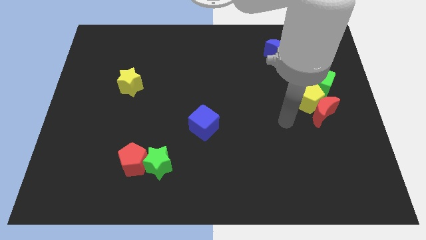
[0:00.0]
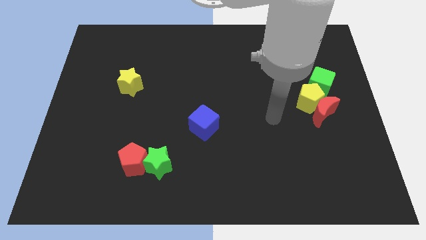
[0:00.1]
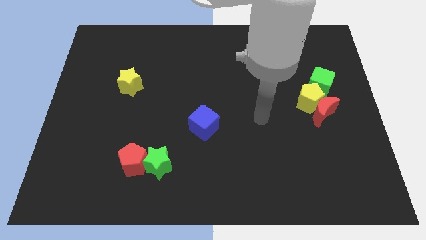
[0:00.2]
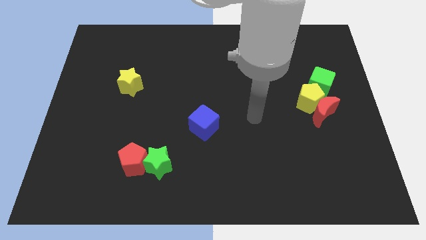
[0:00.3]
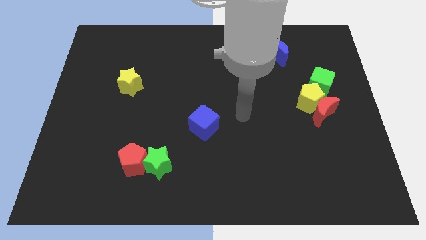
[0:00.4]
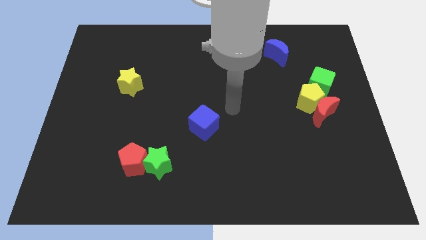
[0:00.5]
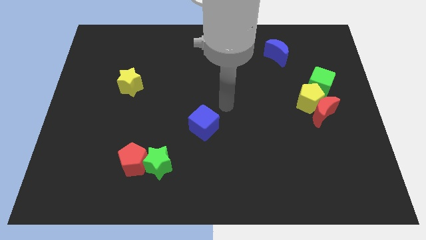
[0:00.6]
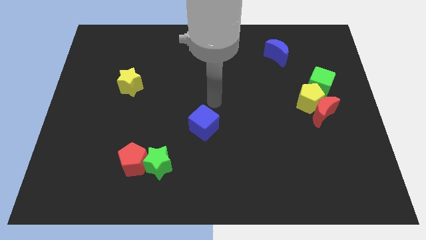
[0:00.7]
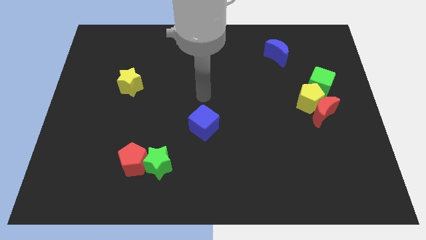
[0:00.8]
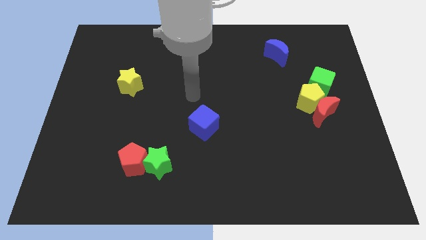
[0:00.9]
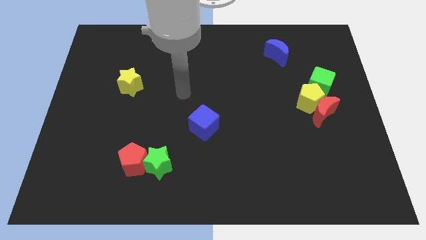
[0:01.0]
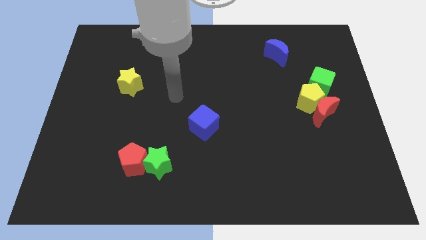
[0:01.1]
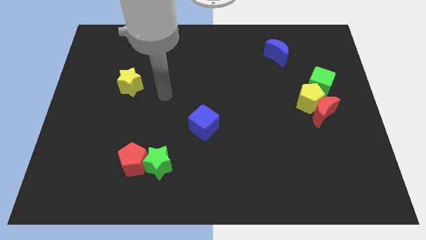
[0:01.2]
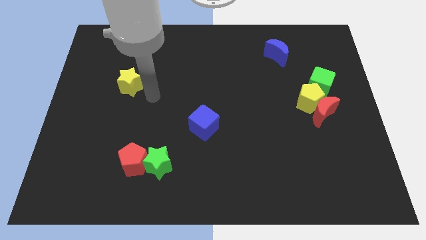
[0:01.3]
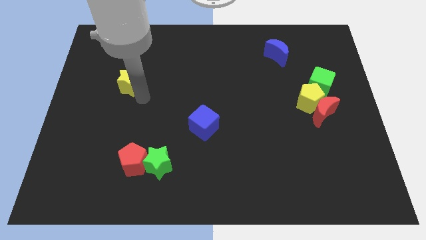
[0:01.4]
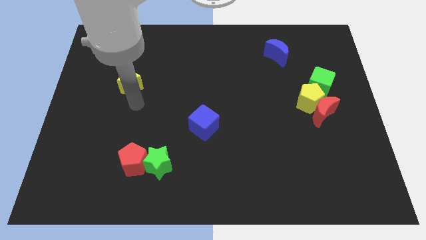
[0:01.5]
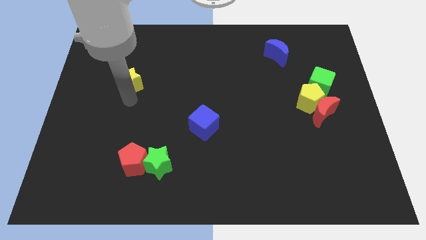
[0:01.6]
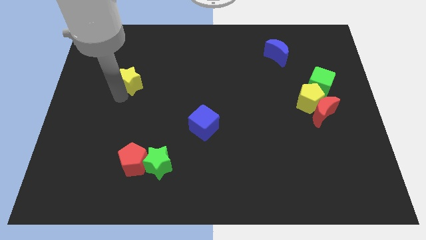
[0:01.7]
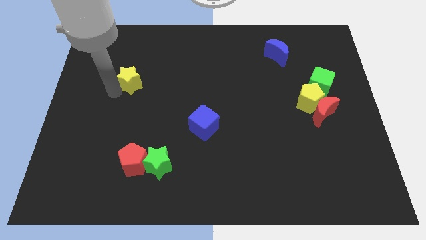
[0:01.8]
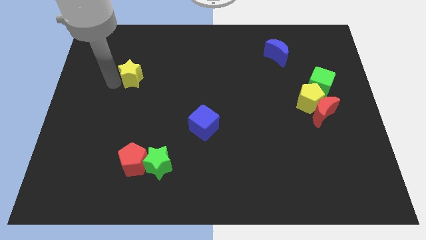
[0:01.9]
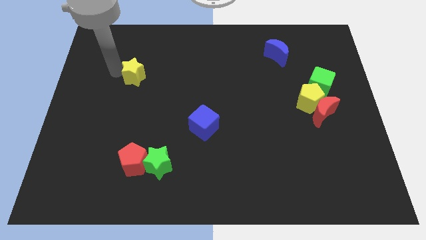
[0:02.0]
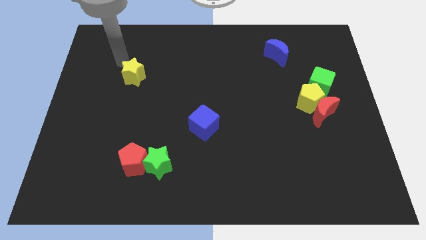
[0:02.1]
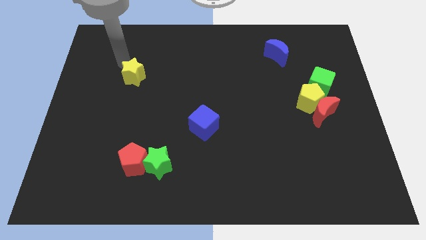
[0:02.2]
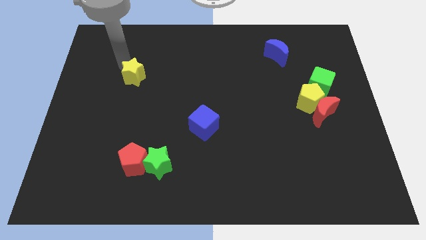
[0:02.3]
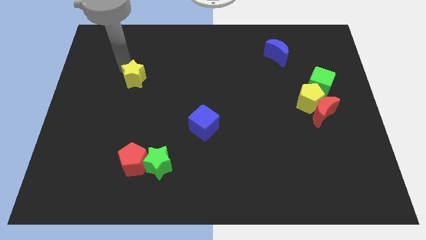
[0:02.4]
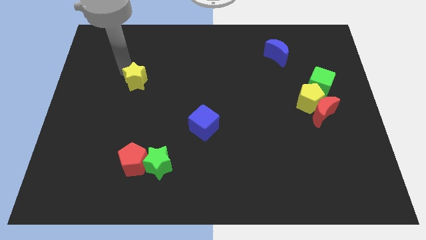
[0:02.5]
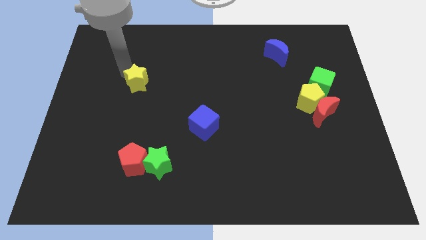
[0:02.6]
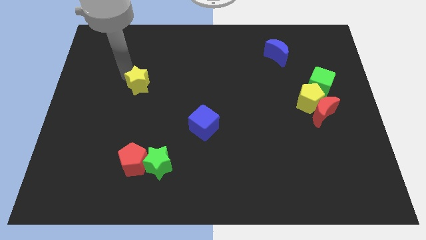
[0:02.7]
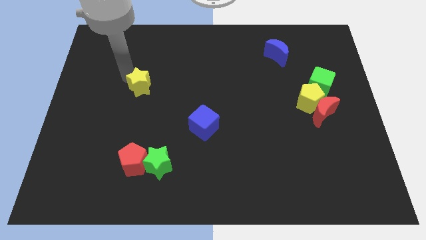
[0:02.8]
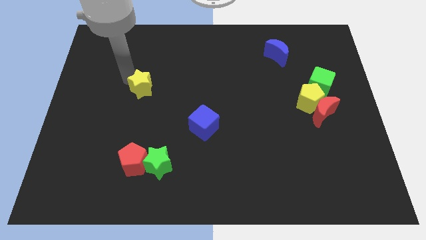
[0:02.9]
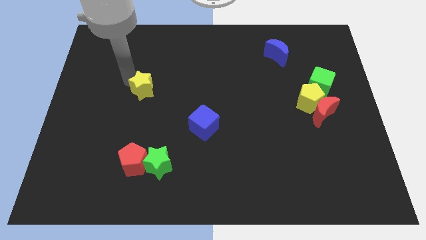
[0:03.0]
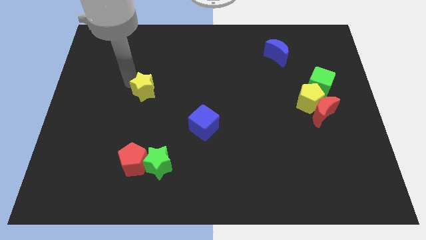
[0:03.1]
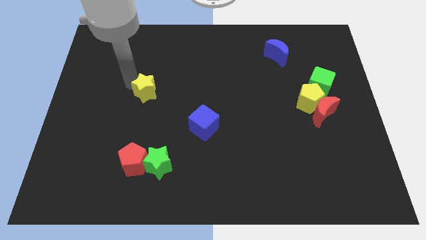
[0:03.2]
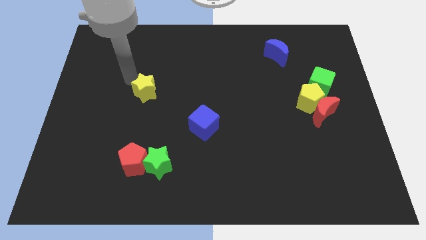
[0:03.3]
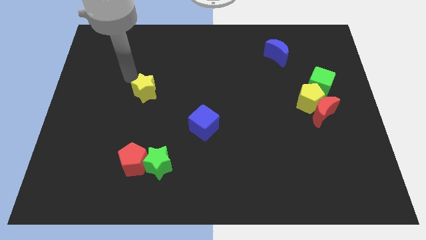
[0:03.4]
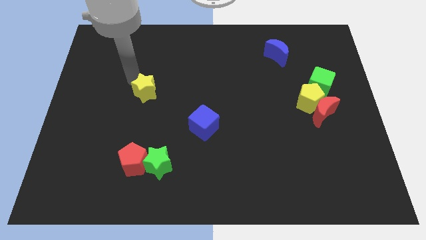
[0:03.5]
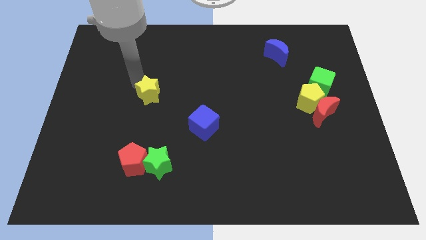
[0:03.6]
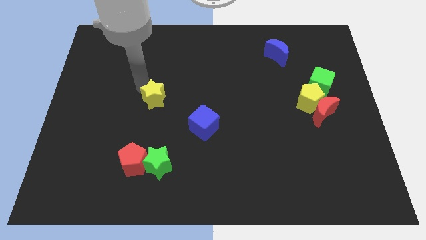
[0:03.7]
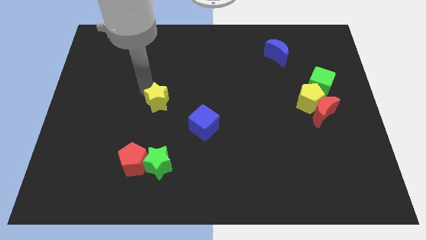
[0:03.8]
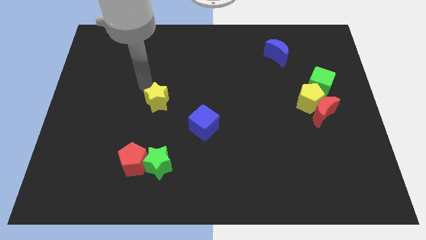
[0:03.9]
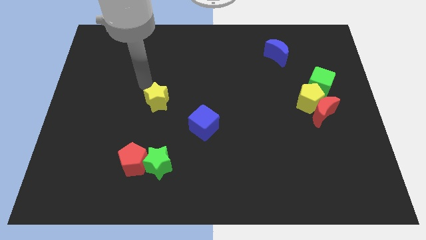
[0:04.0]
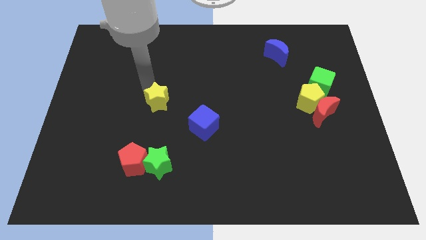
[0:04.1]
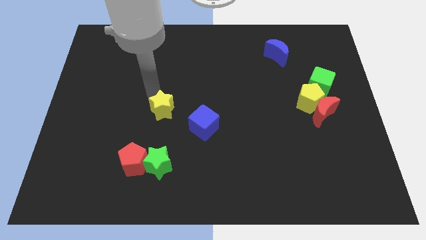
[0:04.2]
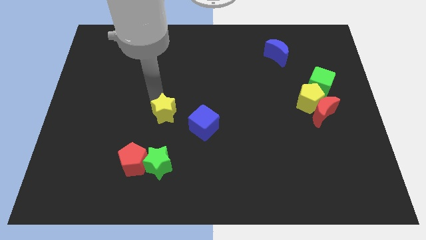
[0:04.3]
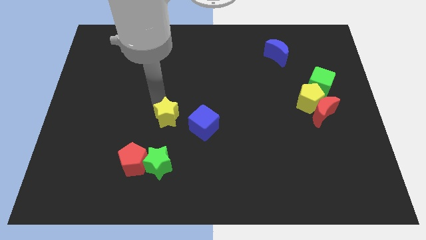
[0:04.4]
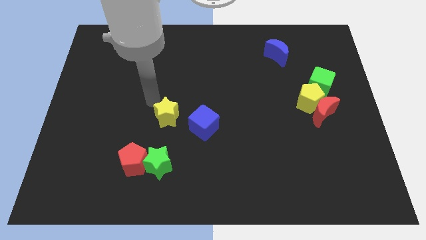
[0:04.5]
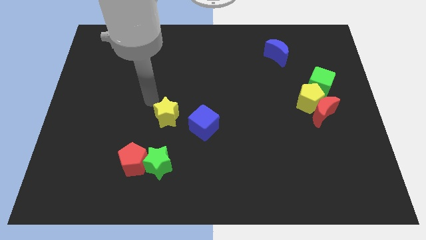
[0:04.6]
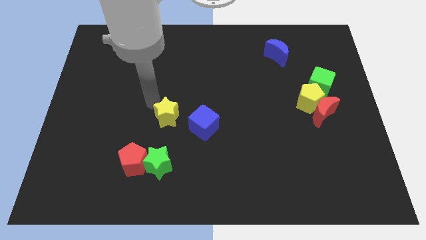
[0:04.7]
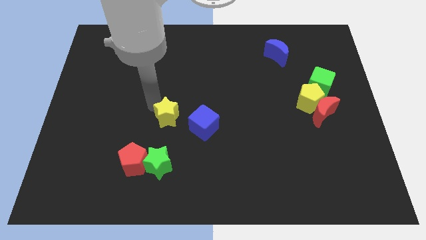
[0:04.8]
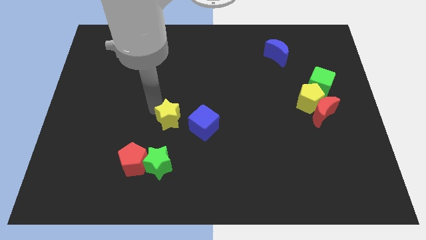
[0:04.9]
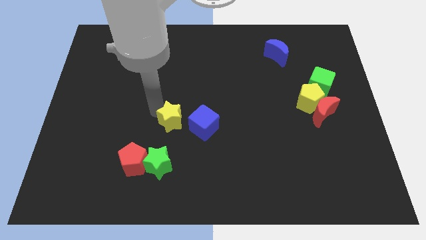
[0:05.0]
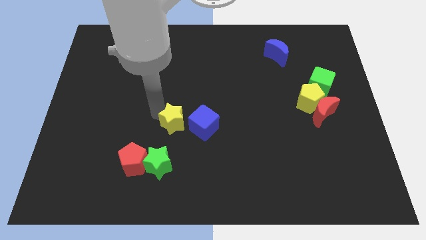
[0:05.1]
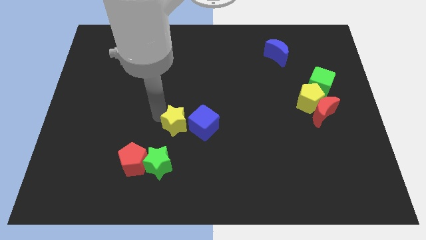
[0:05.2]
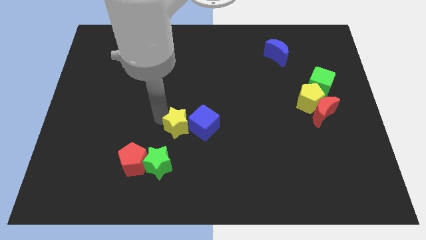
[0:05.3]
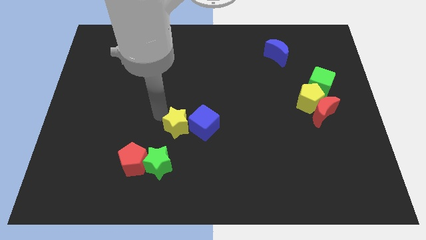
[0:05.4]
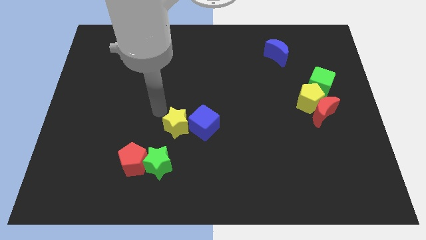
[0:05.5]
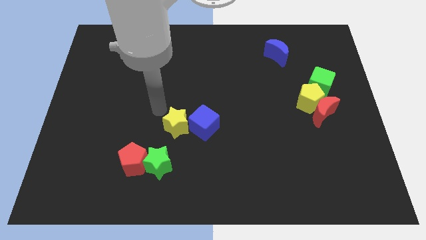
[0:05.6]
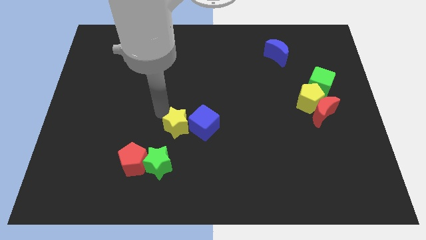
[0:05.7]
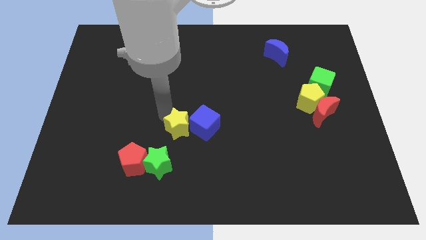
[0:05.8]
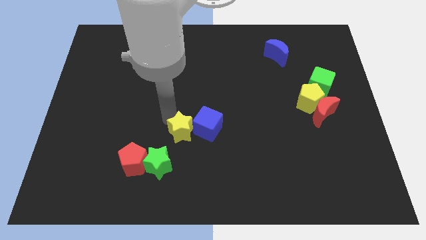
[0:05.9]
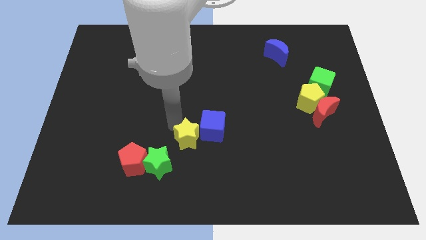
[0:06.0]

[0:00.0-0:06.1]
move the yellow star down and then to the right

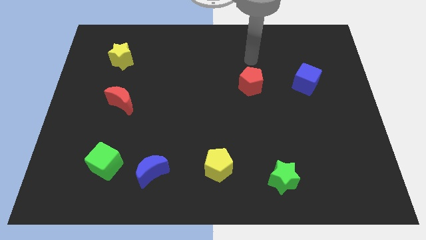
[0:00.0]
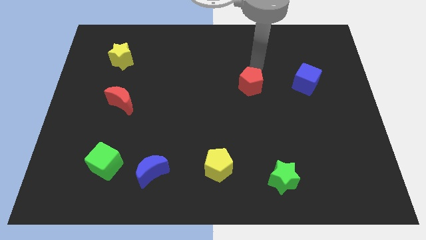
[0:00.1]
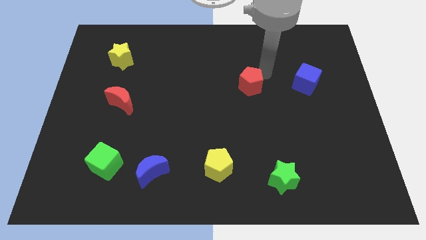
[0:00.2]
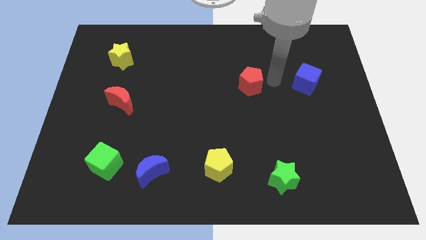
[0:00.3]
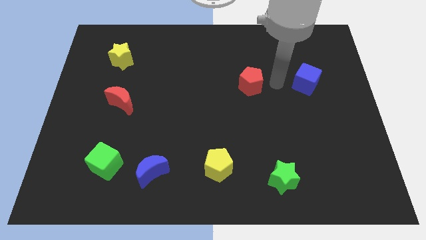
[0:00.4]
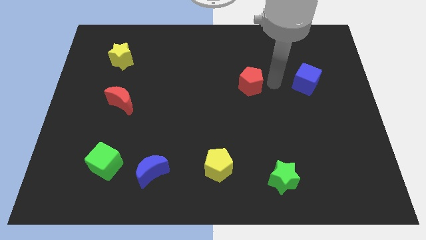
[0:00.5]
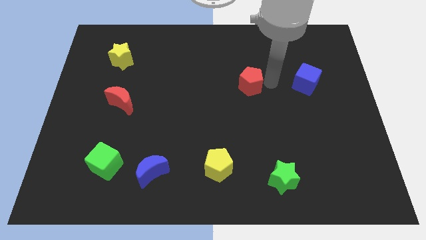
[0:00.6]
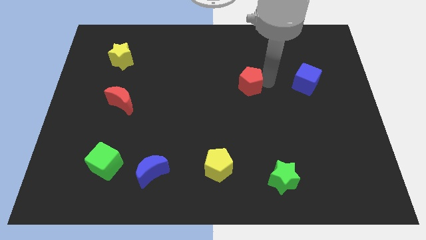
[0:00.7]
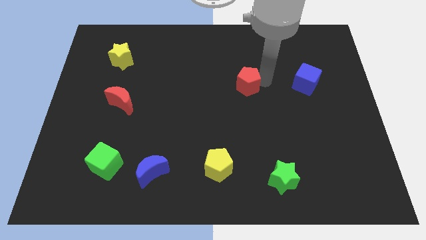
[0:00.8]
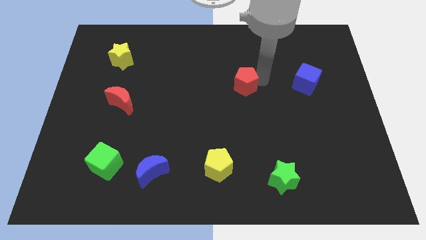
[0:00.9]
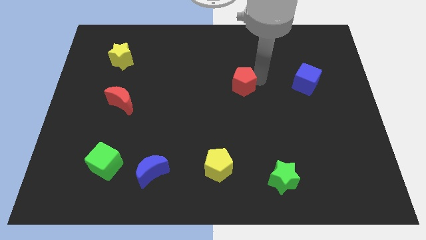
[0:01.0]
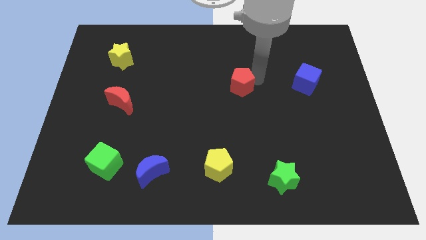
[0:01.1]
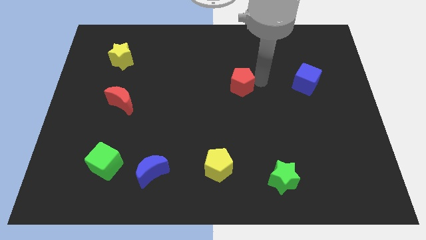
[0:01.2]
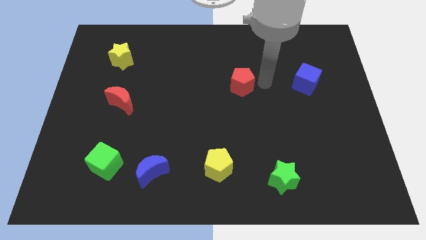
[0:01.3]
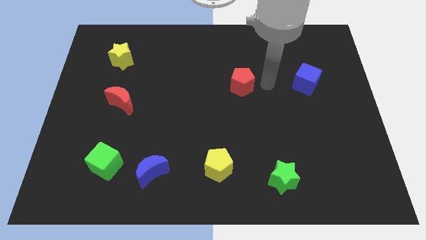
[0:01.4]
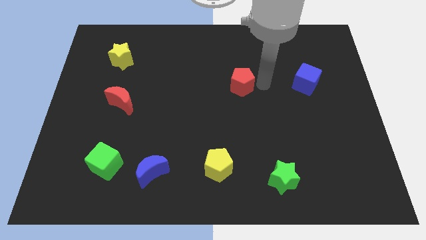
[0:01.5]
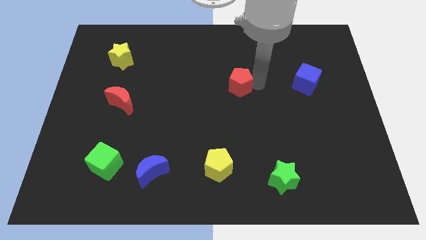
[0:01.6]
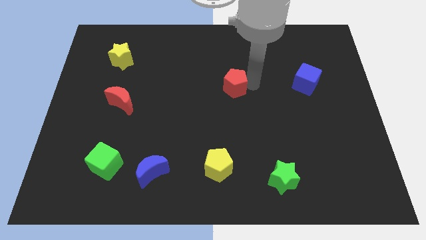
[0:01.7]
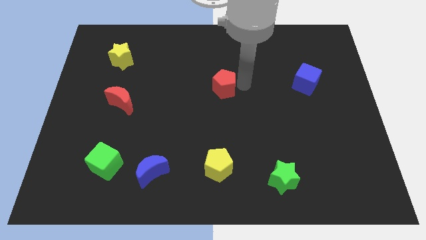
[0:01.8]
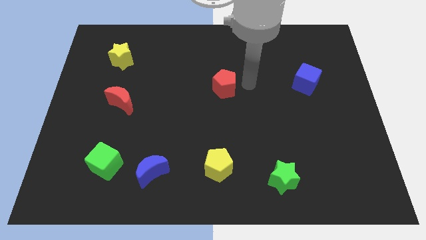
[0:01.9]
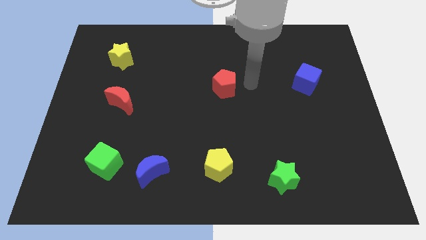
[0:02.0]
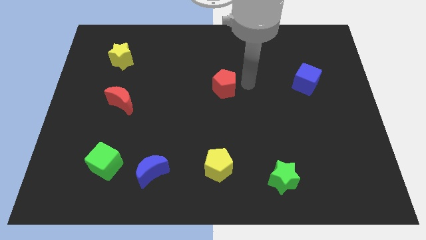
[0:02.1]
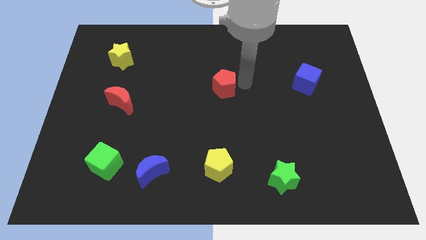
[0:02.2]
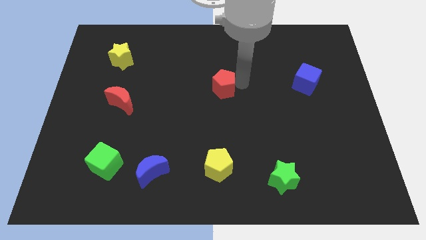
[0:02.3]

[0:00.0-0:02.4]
slightly push the red pentagon left
